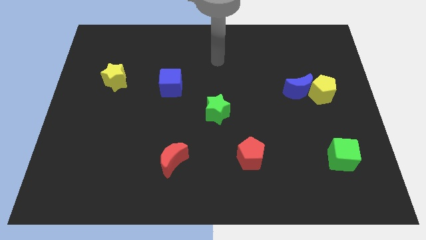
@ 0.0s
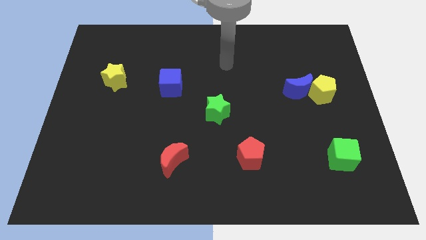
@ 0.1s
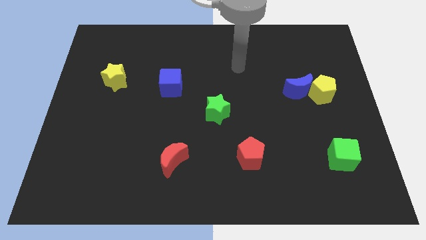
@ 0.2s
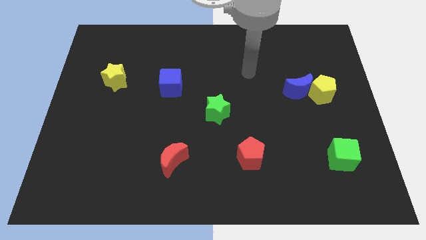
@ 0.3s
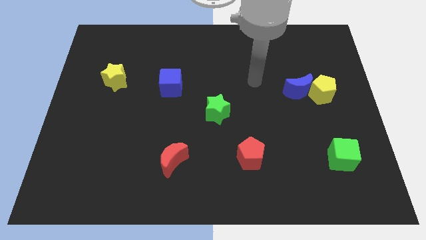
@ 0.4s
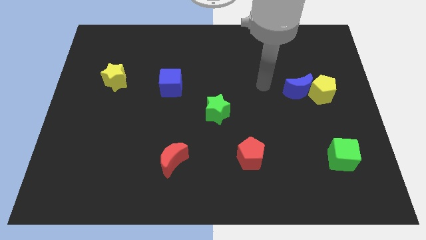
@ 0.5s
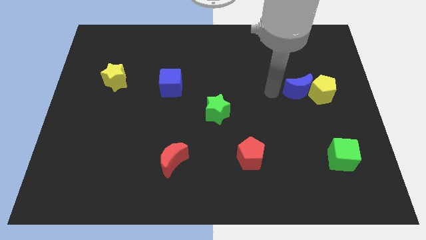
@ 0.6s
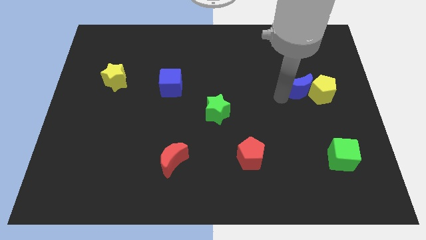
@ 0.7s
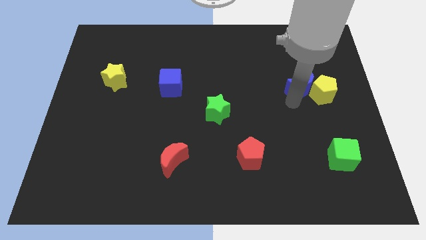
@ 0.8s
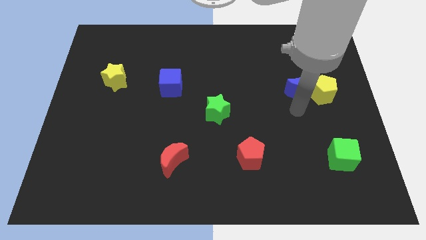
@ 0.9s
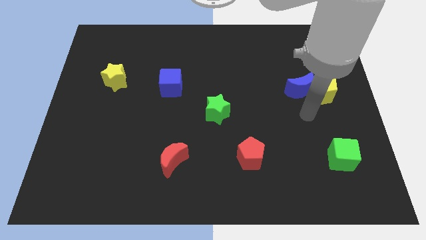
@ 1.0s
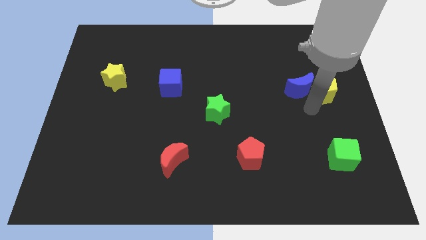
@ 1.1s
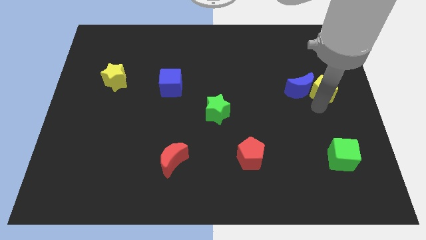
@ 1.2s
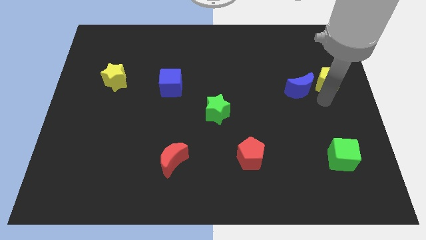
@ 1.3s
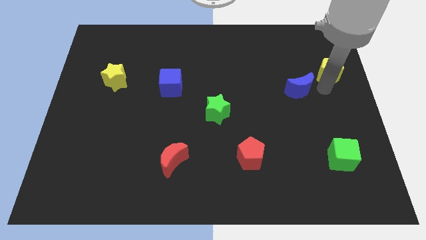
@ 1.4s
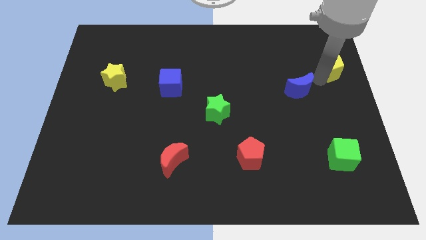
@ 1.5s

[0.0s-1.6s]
pull the blue moon apart from the yellow pentagon

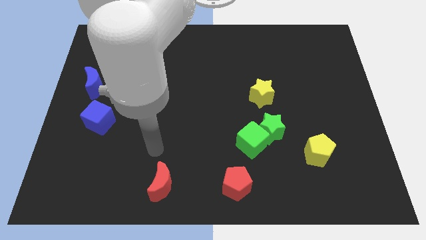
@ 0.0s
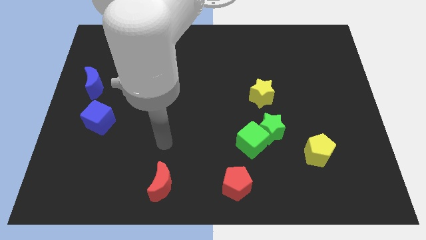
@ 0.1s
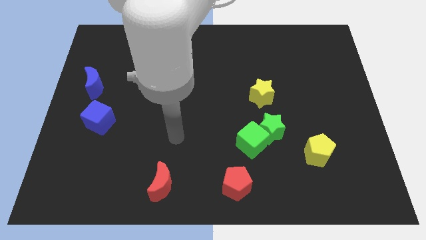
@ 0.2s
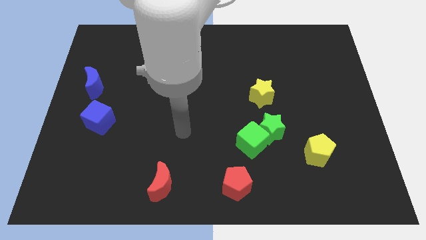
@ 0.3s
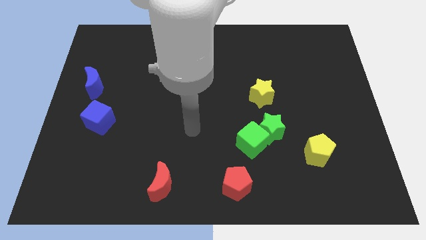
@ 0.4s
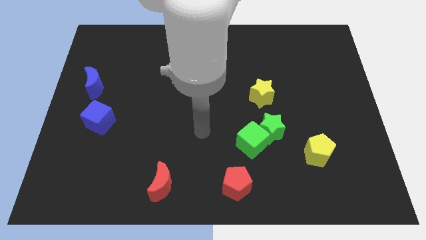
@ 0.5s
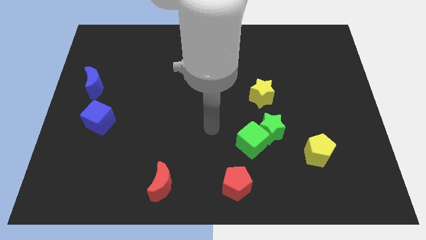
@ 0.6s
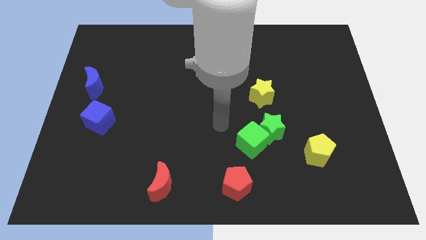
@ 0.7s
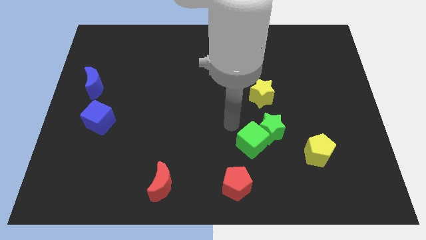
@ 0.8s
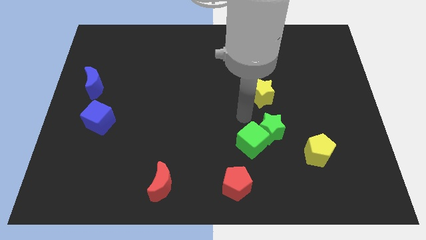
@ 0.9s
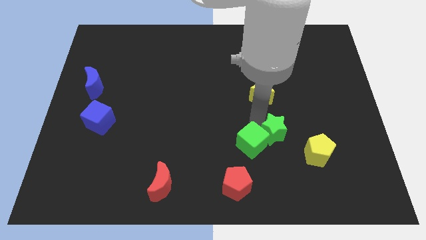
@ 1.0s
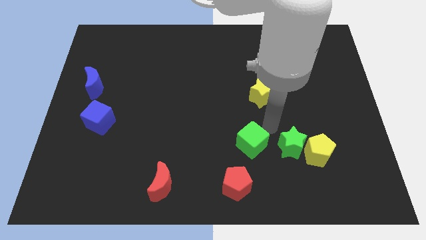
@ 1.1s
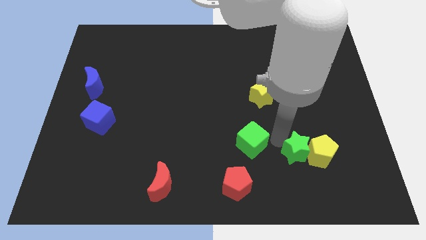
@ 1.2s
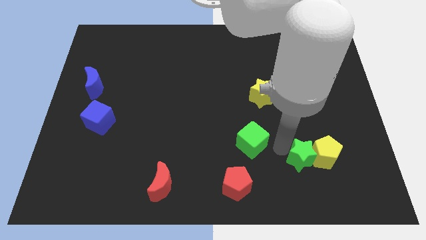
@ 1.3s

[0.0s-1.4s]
pull the green cube apart from the green star

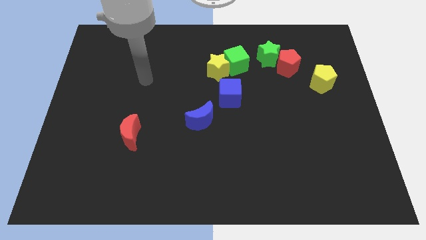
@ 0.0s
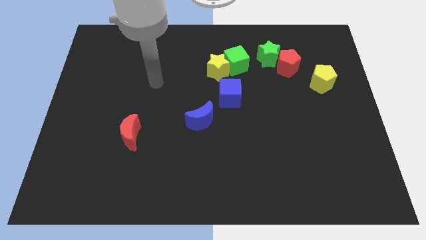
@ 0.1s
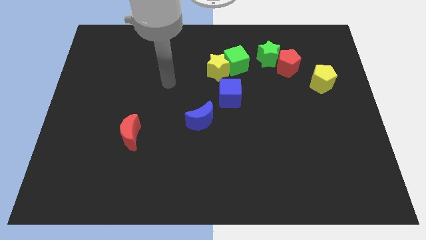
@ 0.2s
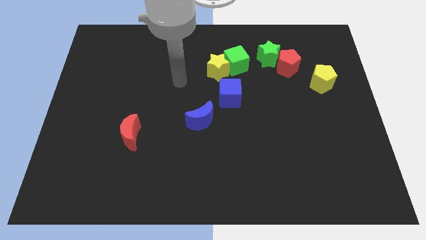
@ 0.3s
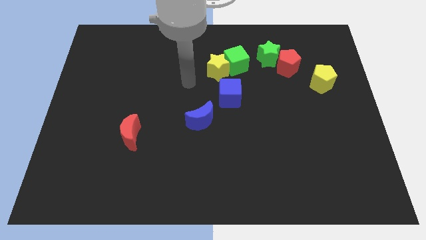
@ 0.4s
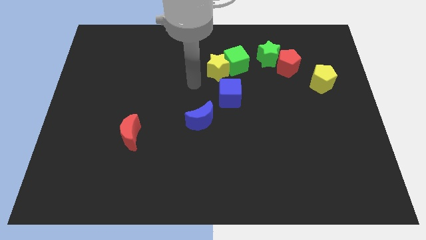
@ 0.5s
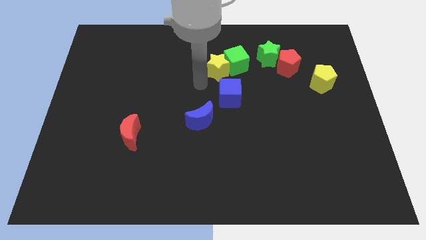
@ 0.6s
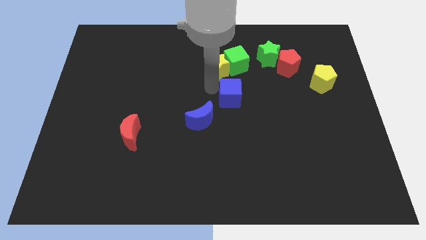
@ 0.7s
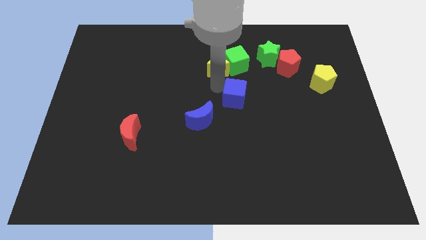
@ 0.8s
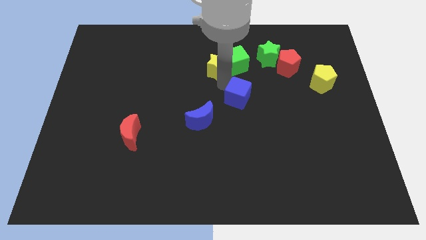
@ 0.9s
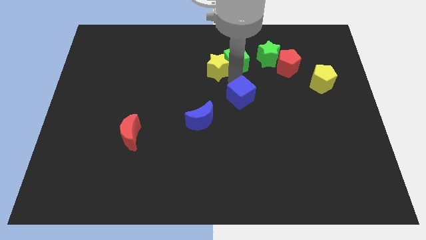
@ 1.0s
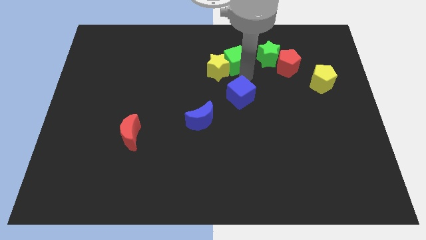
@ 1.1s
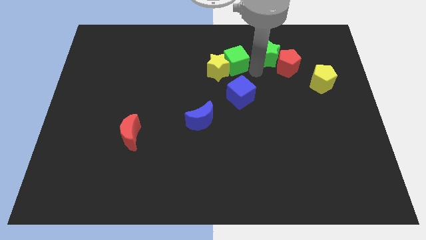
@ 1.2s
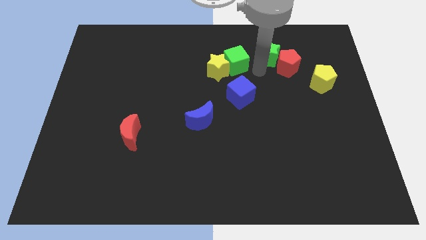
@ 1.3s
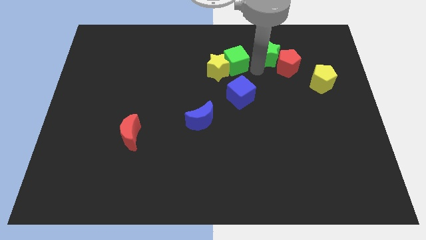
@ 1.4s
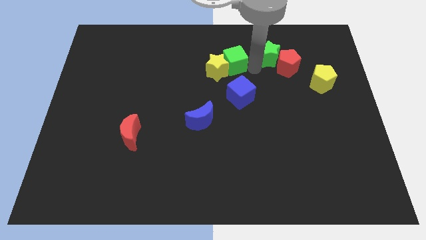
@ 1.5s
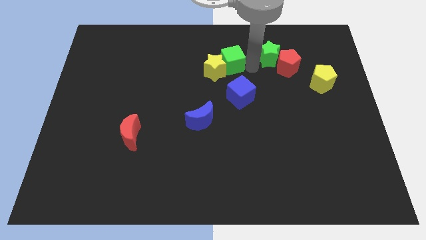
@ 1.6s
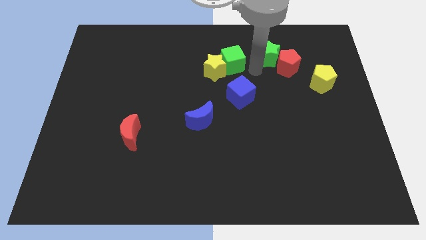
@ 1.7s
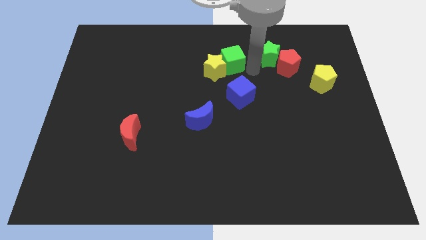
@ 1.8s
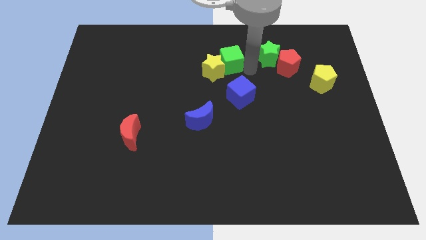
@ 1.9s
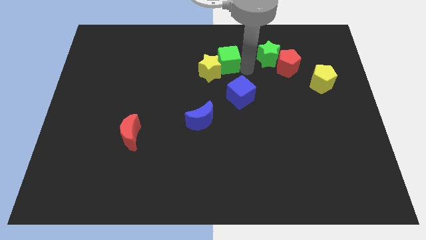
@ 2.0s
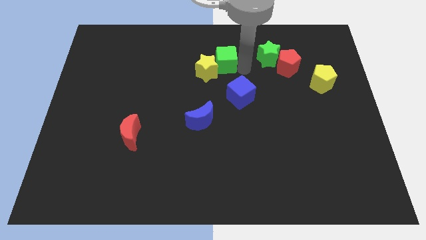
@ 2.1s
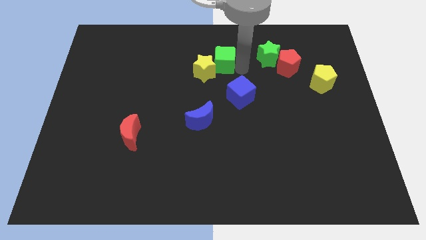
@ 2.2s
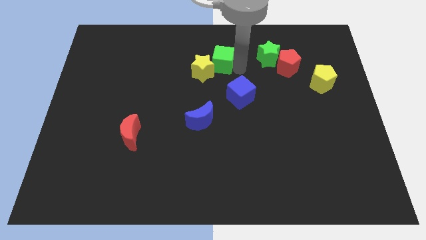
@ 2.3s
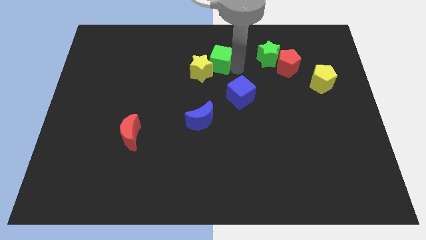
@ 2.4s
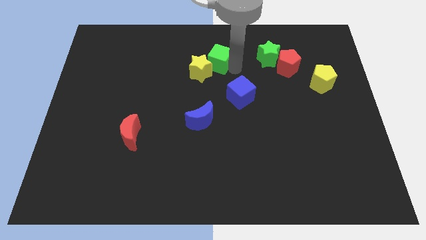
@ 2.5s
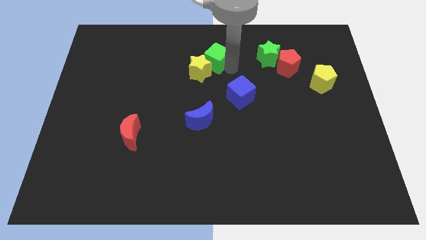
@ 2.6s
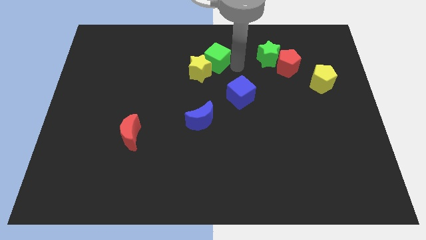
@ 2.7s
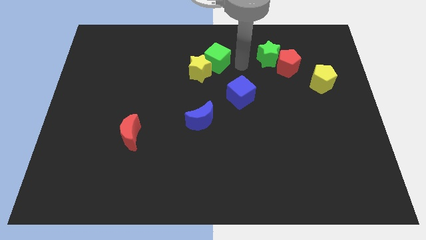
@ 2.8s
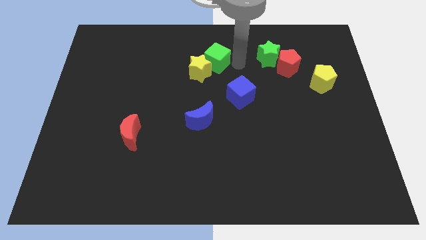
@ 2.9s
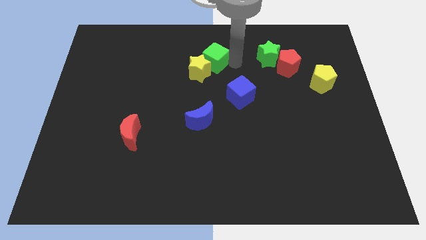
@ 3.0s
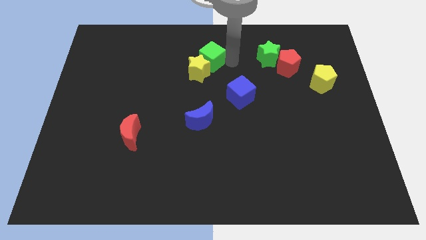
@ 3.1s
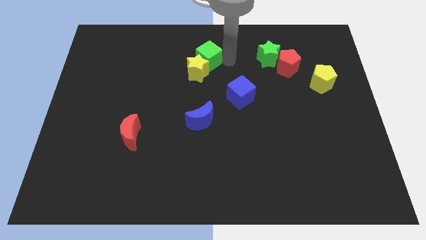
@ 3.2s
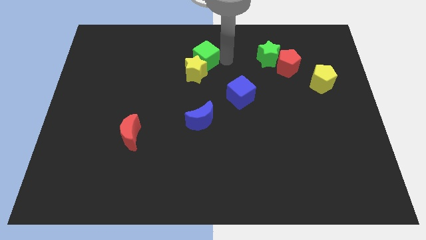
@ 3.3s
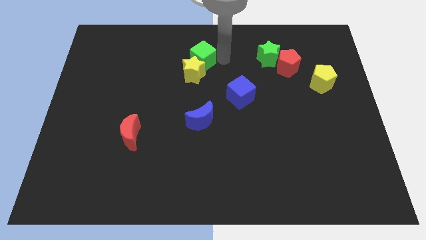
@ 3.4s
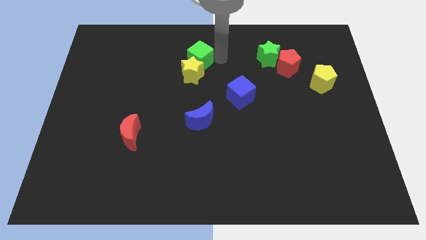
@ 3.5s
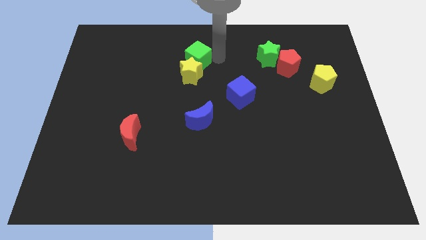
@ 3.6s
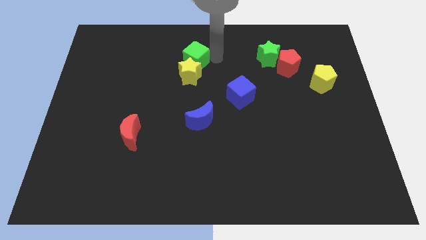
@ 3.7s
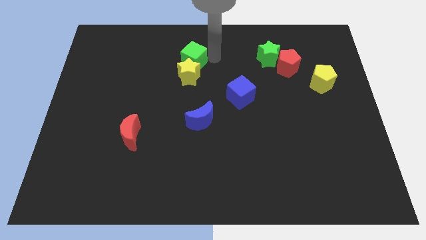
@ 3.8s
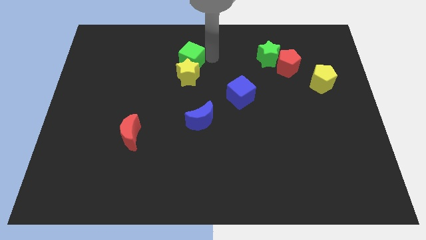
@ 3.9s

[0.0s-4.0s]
pull the green cube apart from the yellow star and green star

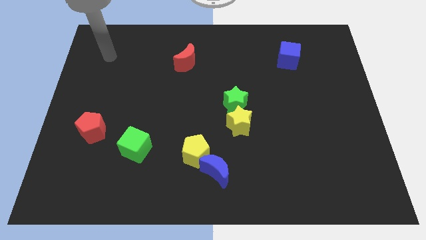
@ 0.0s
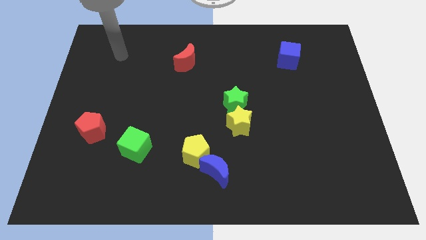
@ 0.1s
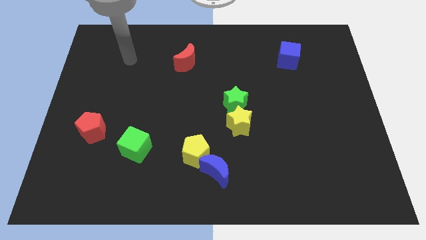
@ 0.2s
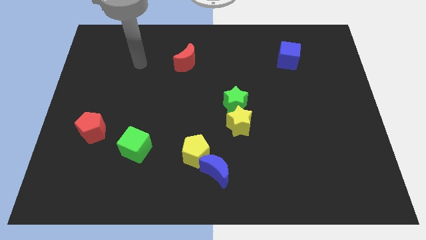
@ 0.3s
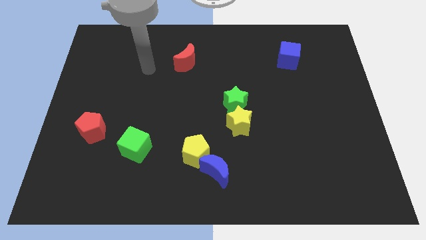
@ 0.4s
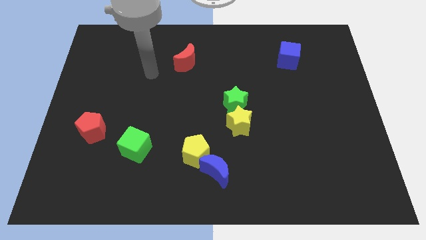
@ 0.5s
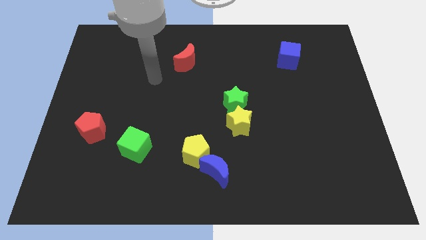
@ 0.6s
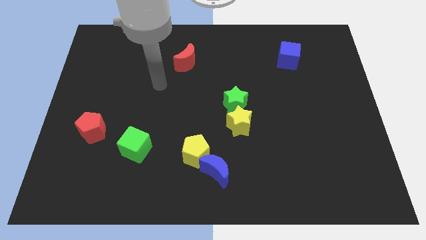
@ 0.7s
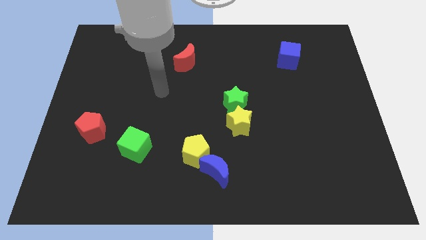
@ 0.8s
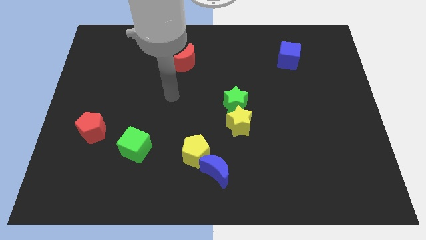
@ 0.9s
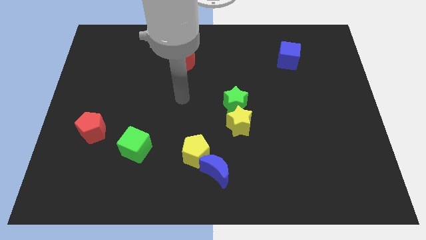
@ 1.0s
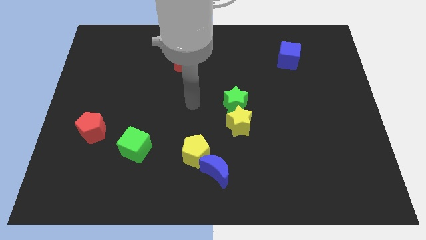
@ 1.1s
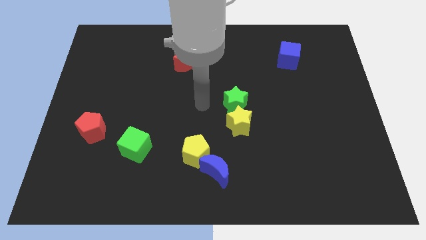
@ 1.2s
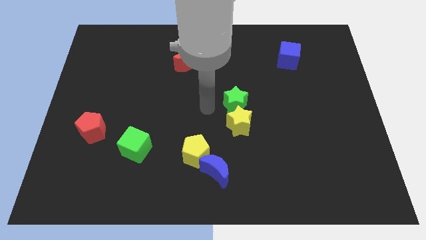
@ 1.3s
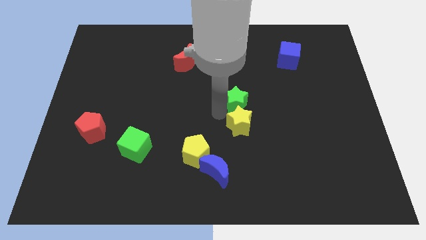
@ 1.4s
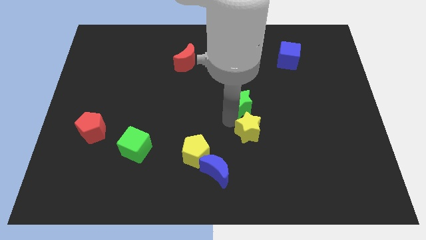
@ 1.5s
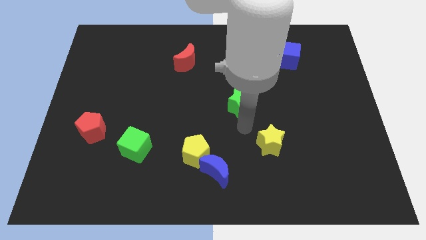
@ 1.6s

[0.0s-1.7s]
move the green star away from the yellow star

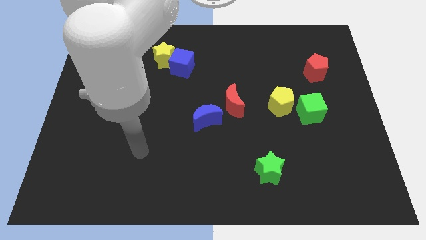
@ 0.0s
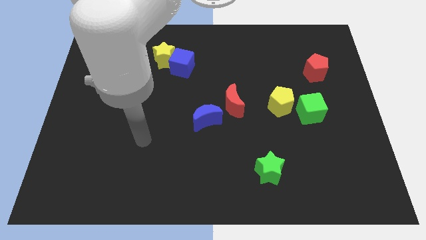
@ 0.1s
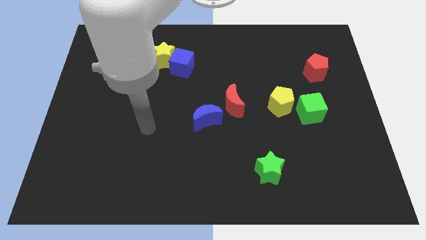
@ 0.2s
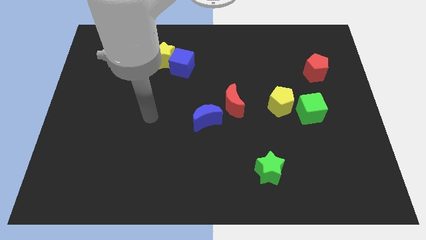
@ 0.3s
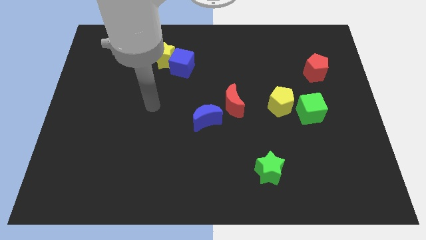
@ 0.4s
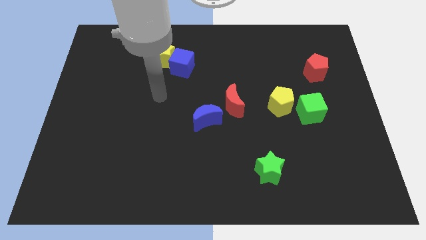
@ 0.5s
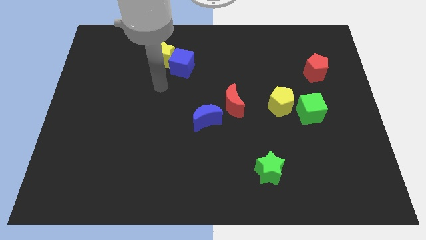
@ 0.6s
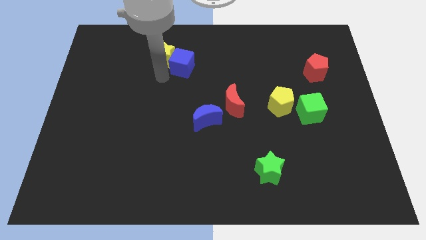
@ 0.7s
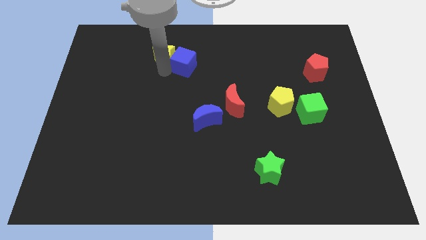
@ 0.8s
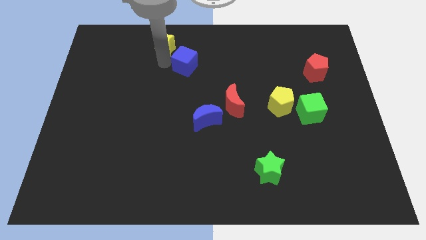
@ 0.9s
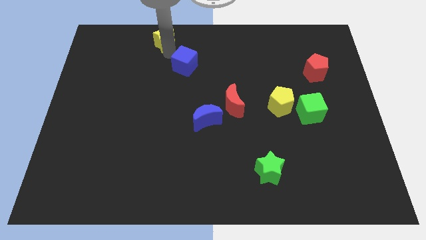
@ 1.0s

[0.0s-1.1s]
pull the blue cube apart from the yellow star
